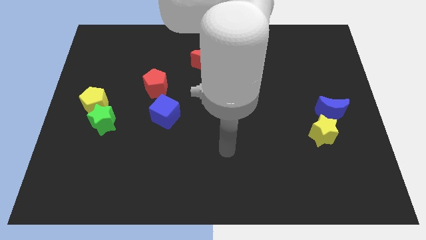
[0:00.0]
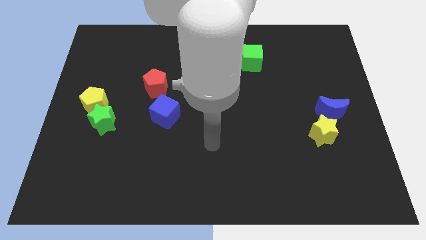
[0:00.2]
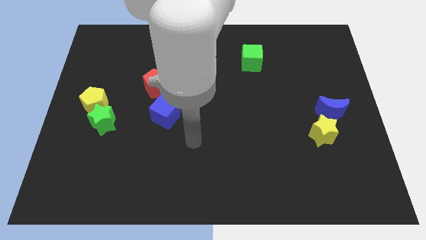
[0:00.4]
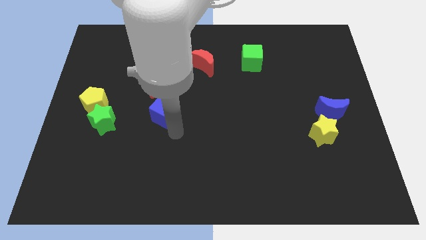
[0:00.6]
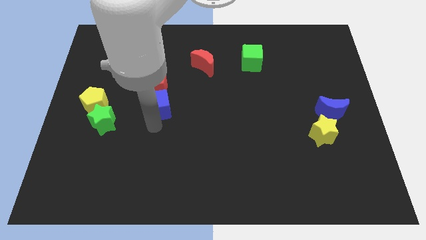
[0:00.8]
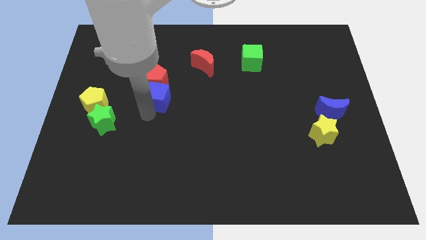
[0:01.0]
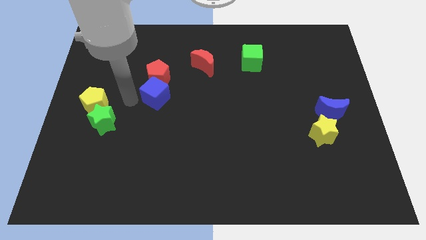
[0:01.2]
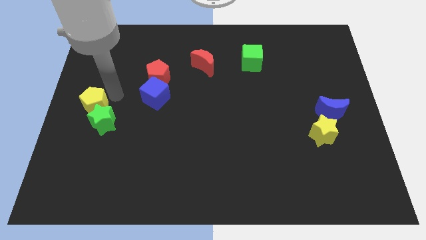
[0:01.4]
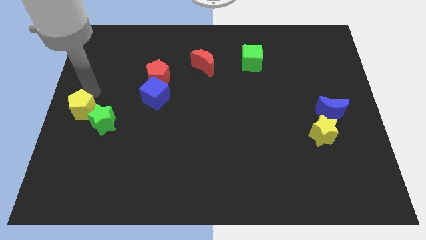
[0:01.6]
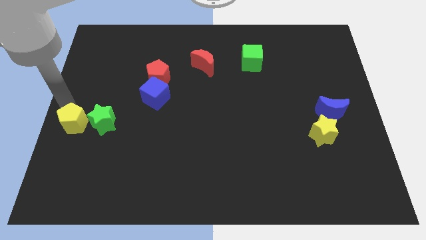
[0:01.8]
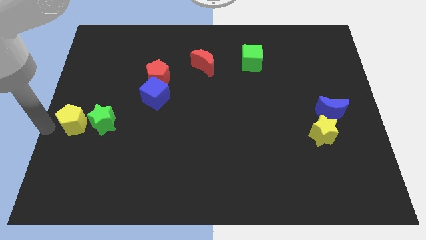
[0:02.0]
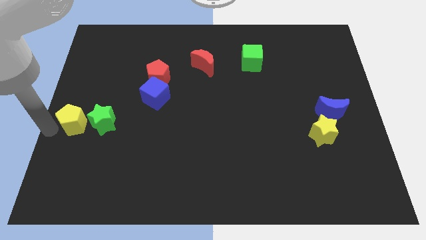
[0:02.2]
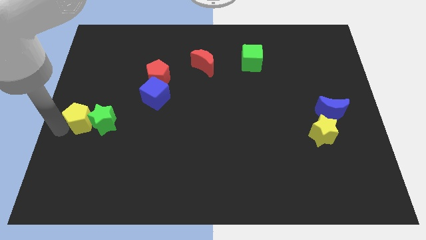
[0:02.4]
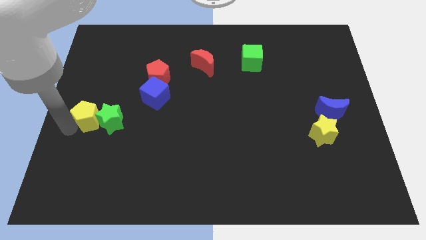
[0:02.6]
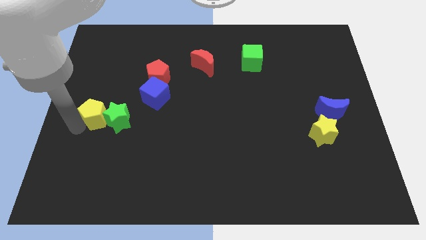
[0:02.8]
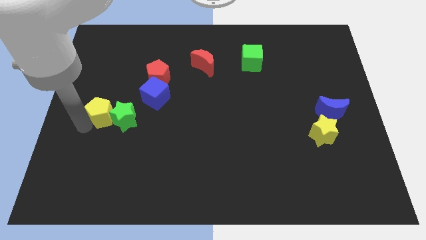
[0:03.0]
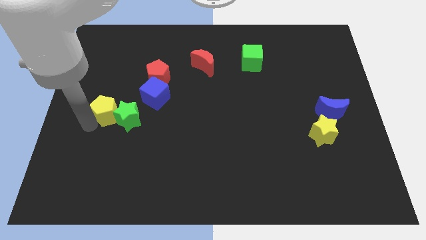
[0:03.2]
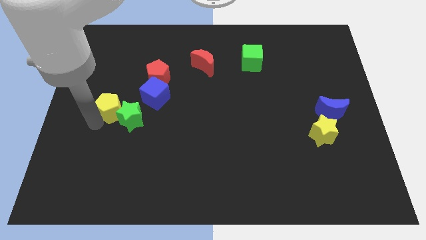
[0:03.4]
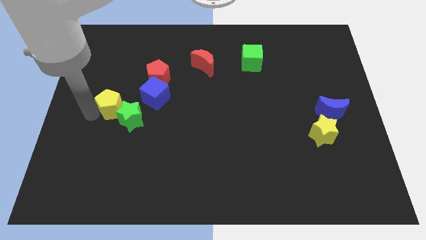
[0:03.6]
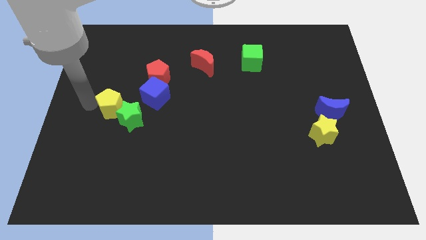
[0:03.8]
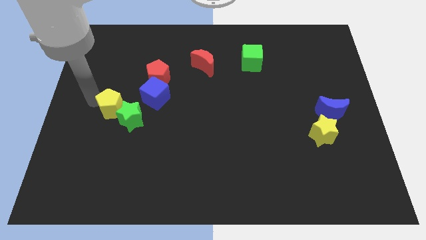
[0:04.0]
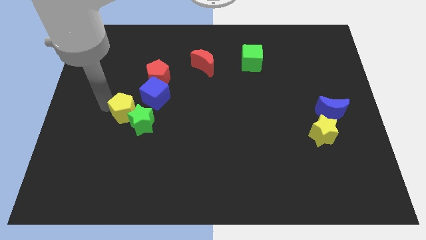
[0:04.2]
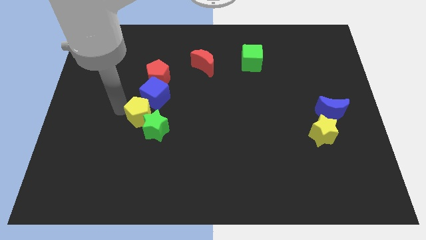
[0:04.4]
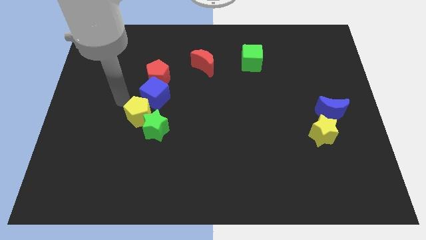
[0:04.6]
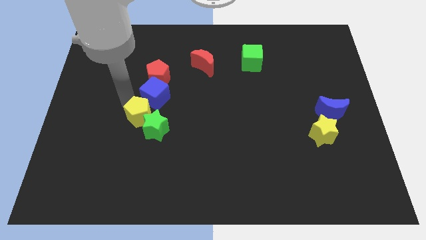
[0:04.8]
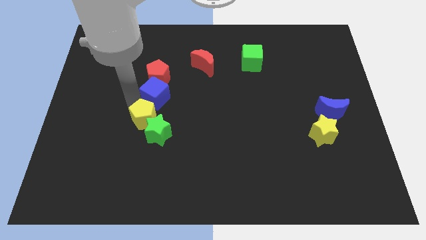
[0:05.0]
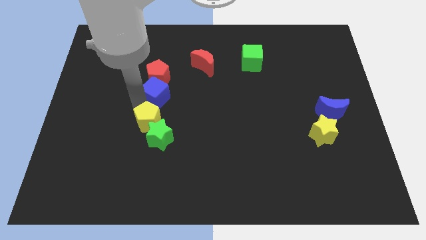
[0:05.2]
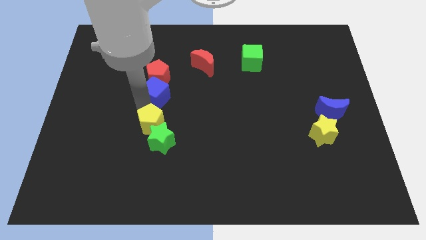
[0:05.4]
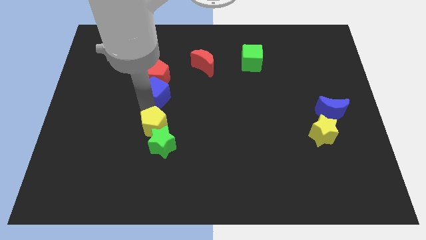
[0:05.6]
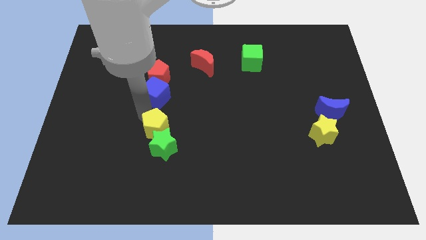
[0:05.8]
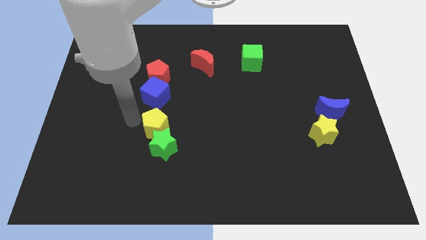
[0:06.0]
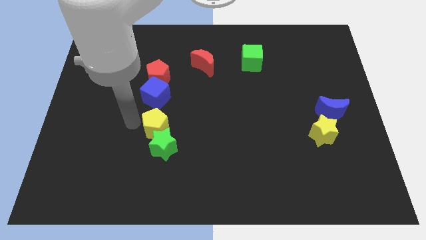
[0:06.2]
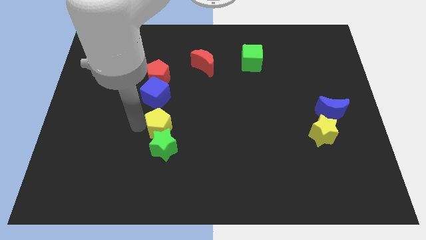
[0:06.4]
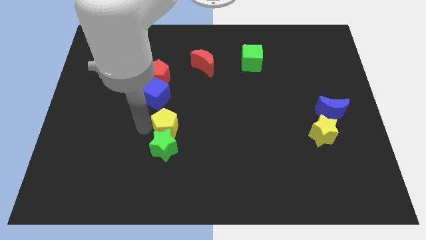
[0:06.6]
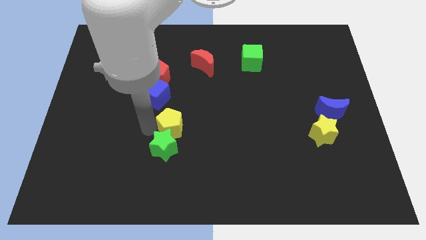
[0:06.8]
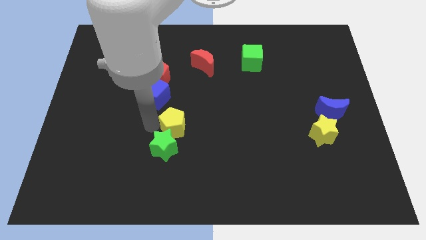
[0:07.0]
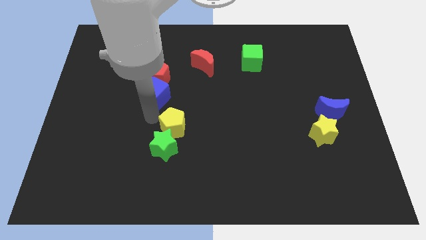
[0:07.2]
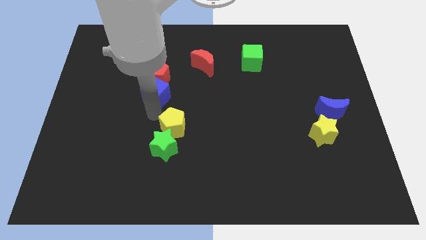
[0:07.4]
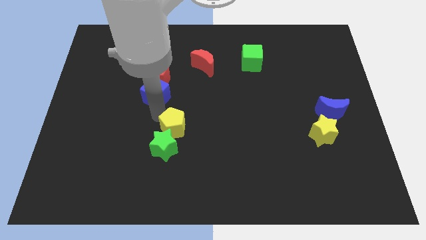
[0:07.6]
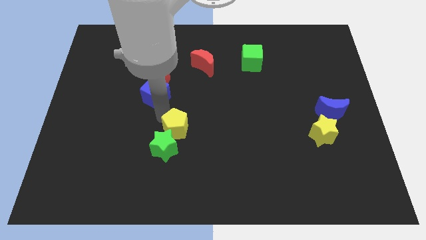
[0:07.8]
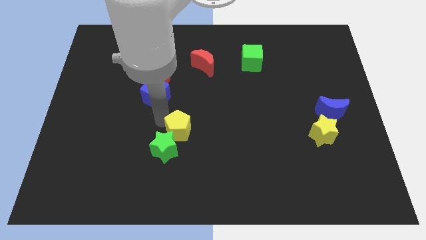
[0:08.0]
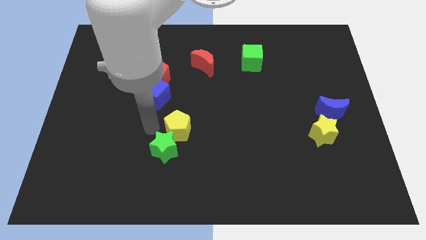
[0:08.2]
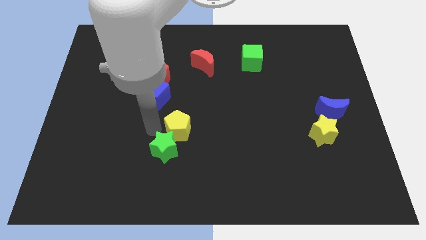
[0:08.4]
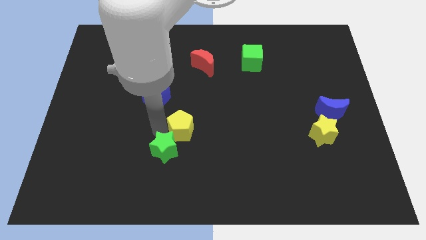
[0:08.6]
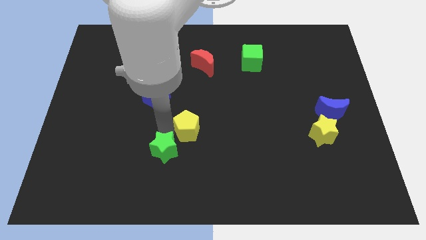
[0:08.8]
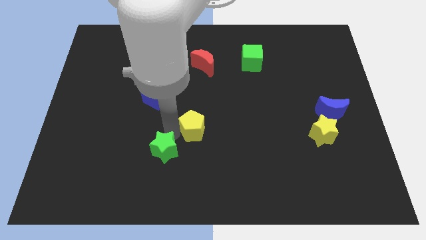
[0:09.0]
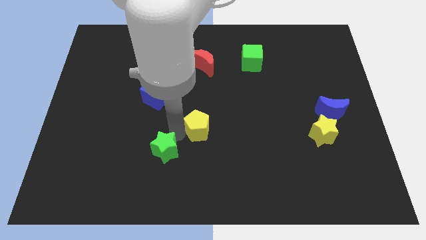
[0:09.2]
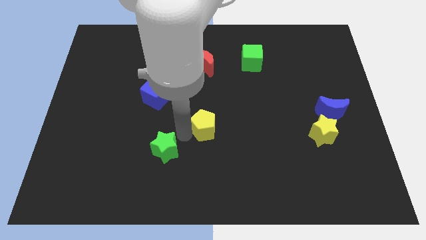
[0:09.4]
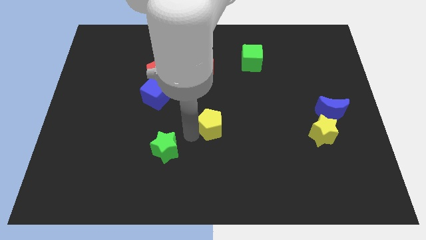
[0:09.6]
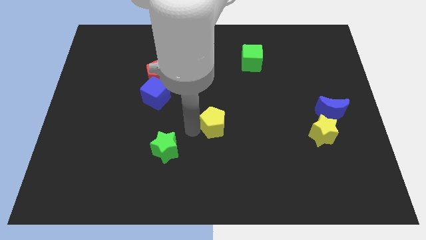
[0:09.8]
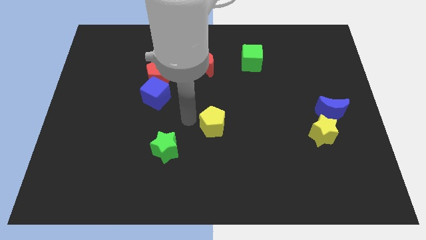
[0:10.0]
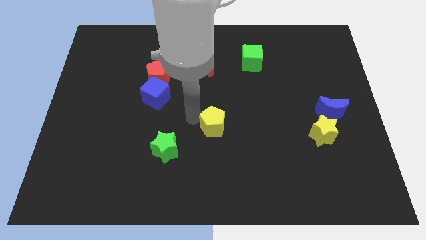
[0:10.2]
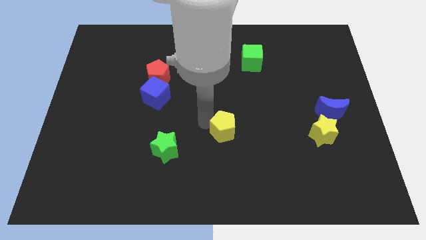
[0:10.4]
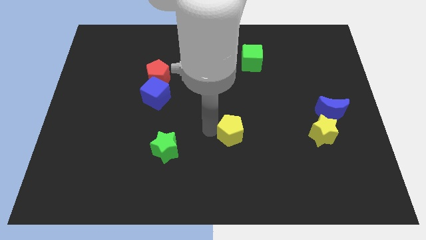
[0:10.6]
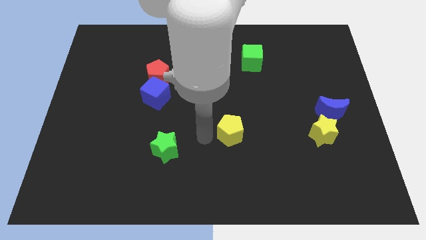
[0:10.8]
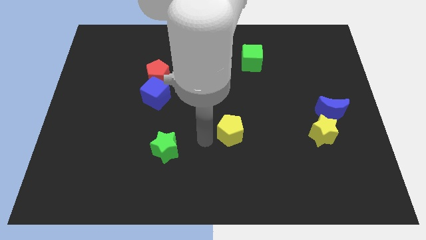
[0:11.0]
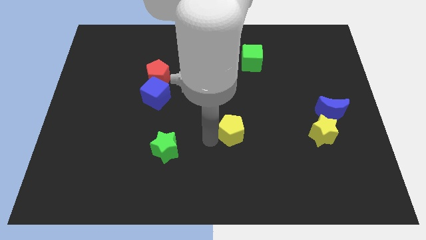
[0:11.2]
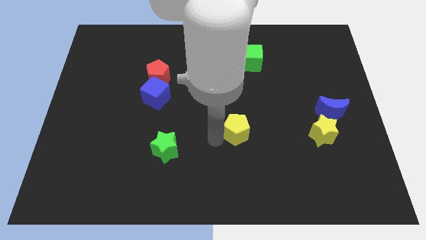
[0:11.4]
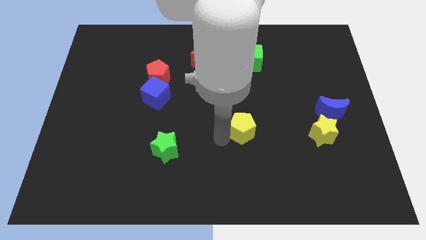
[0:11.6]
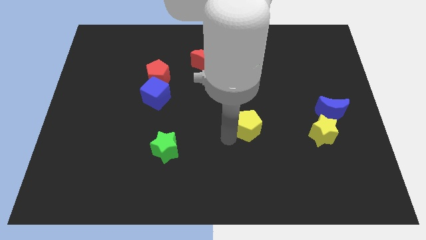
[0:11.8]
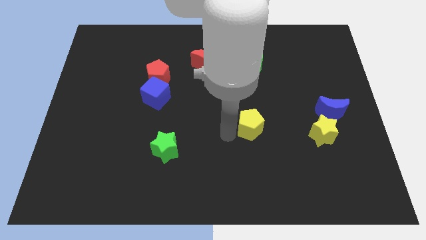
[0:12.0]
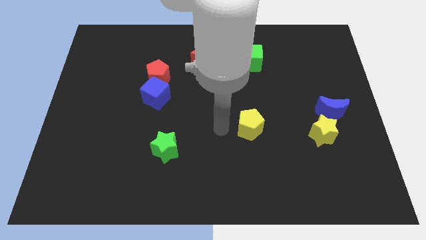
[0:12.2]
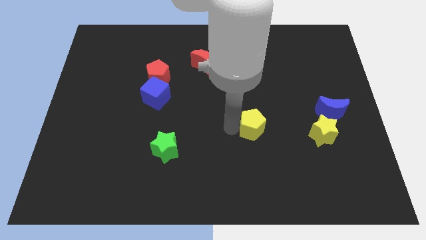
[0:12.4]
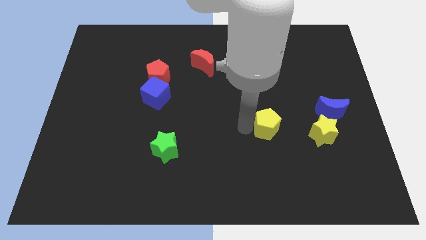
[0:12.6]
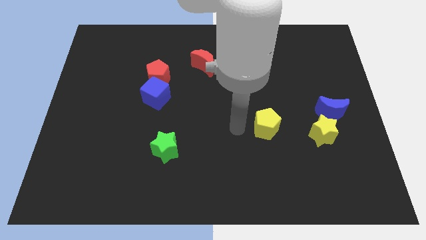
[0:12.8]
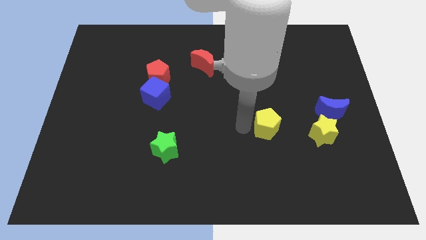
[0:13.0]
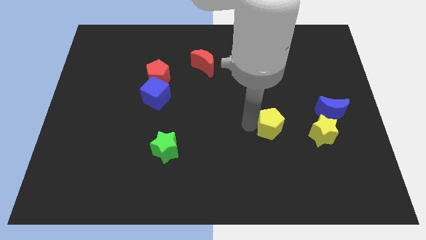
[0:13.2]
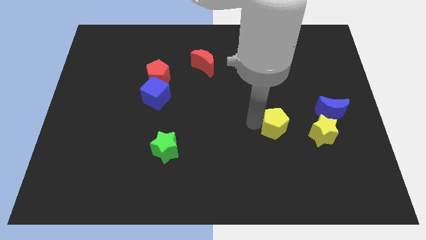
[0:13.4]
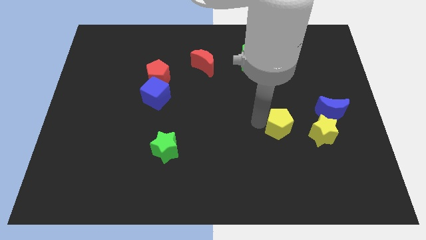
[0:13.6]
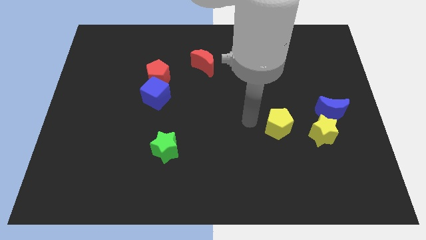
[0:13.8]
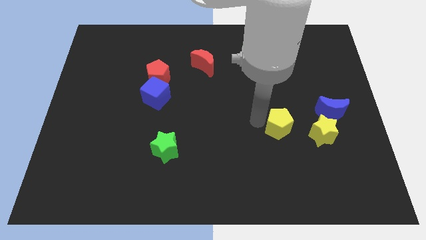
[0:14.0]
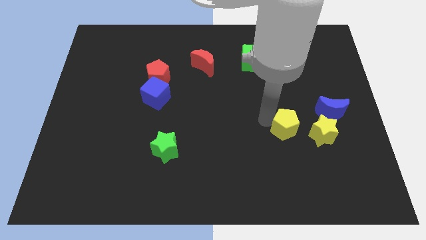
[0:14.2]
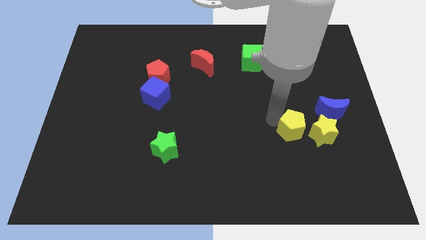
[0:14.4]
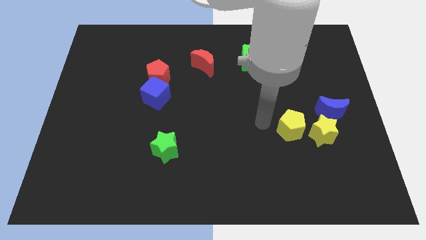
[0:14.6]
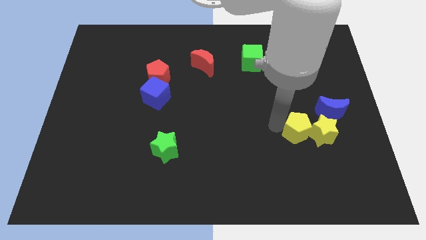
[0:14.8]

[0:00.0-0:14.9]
push the yellow pentagon to the yellow star
